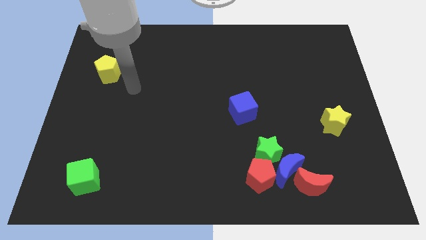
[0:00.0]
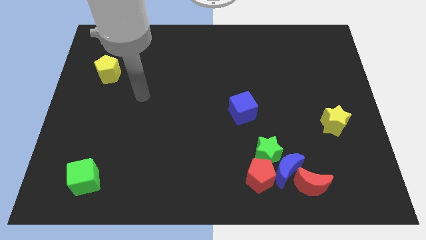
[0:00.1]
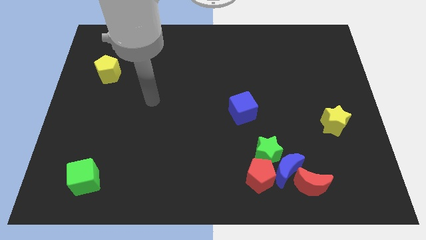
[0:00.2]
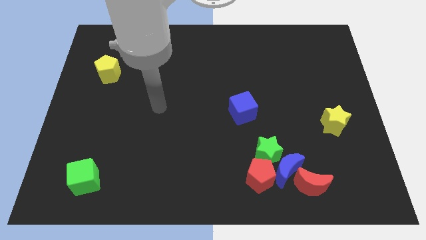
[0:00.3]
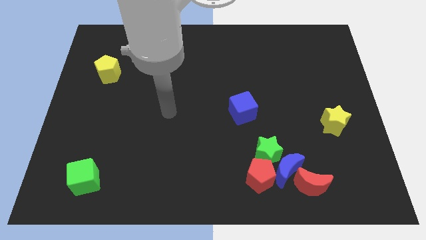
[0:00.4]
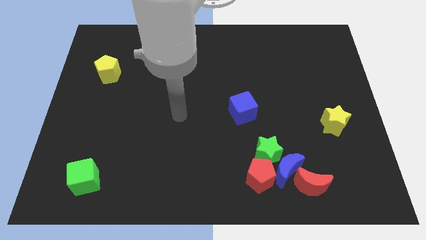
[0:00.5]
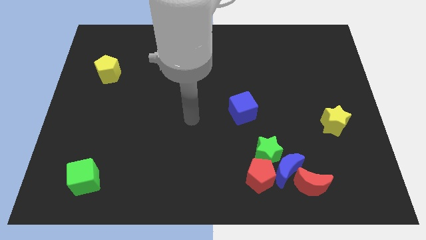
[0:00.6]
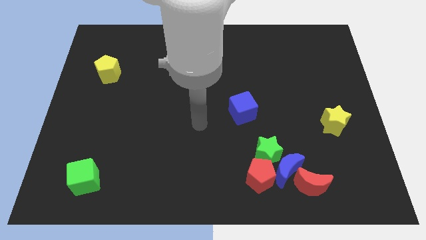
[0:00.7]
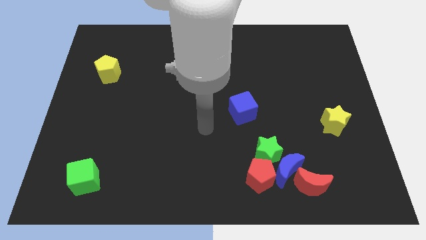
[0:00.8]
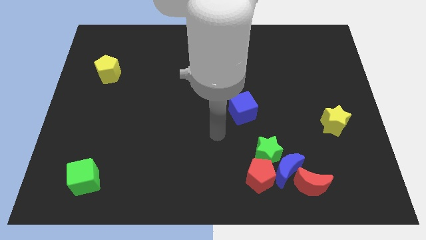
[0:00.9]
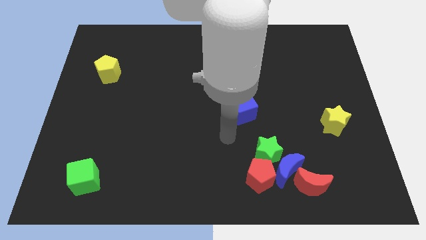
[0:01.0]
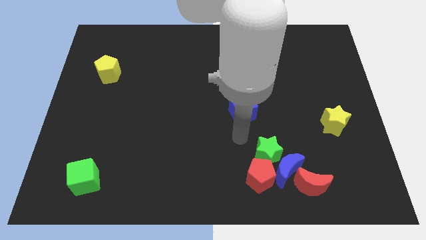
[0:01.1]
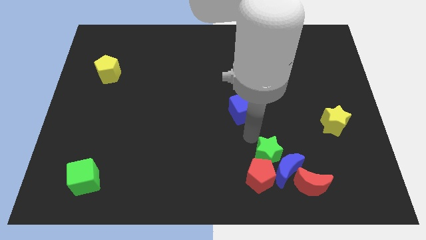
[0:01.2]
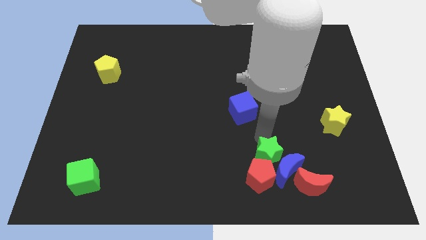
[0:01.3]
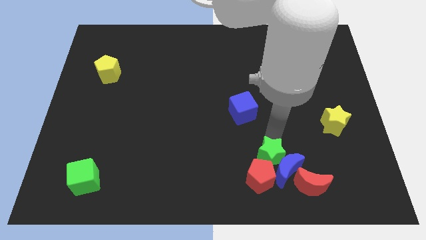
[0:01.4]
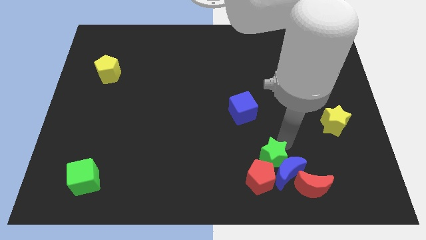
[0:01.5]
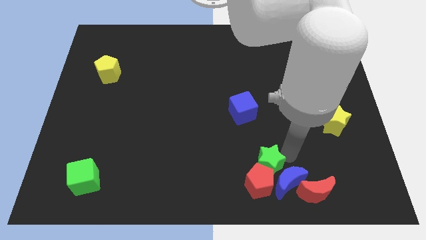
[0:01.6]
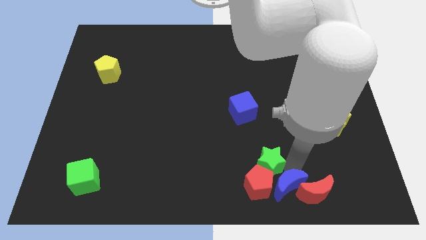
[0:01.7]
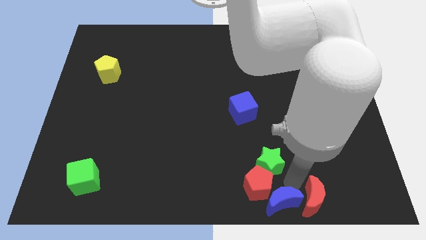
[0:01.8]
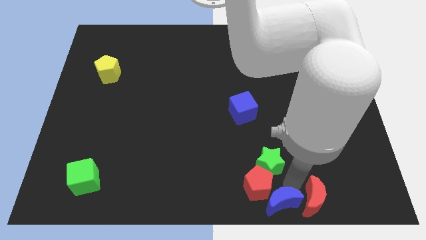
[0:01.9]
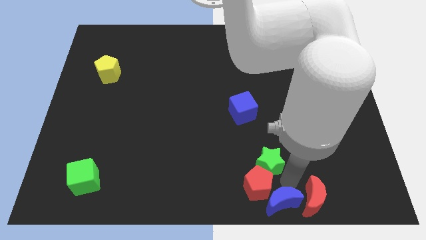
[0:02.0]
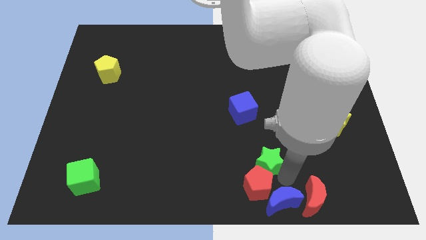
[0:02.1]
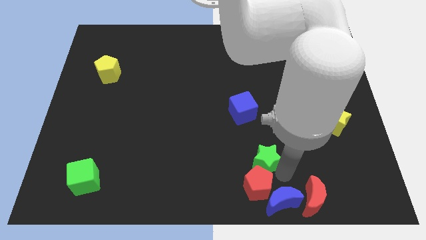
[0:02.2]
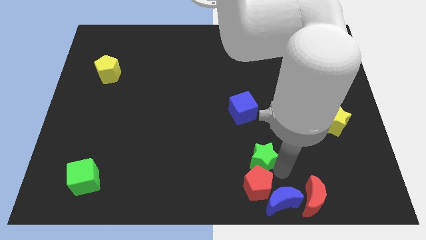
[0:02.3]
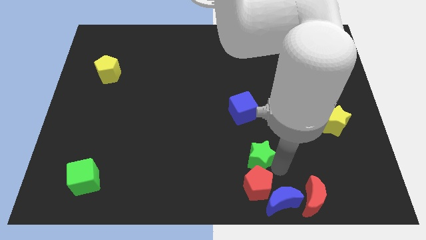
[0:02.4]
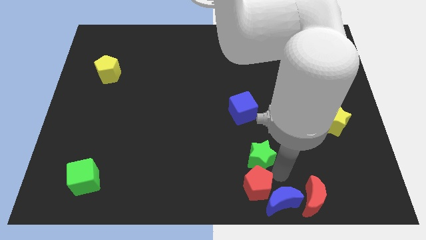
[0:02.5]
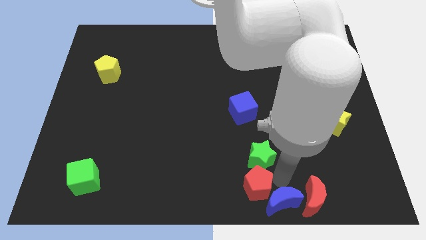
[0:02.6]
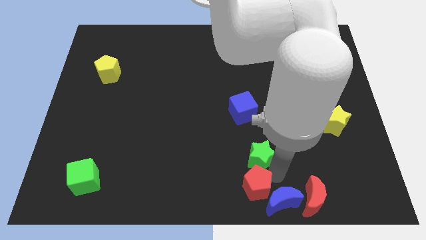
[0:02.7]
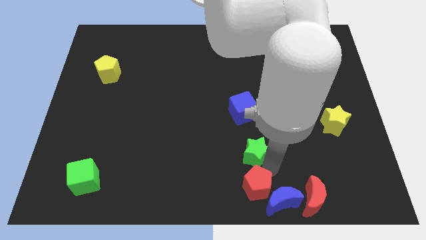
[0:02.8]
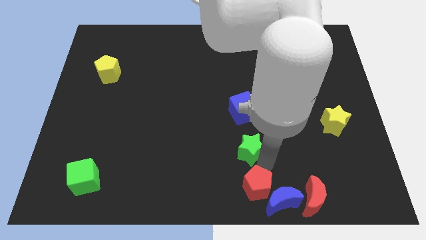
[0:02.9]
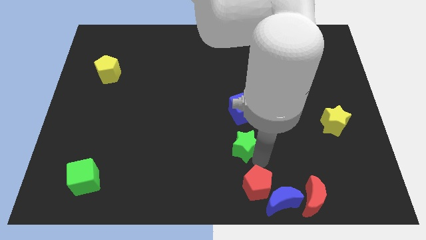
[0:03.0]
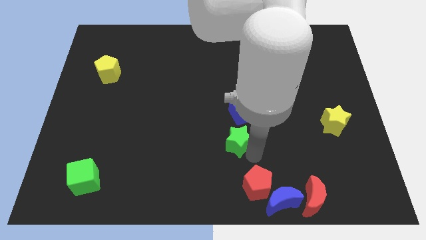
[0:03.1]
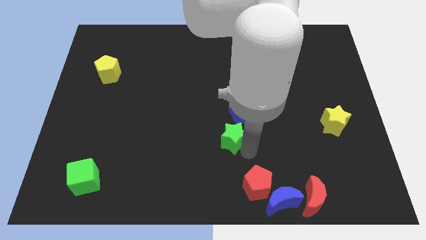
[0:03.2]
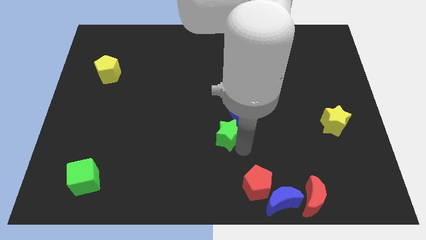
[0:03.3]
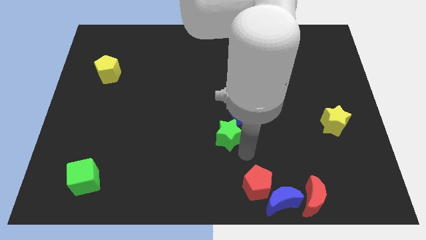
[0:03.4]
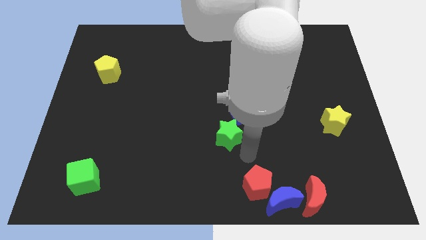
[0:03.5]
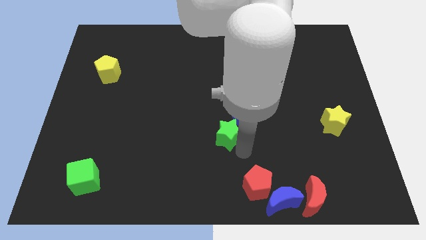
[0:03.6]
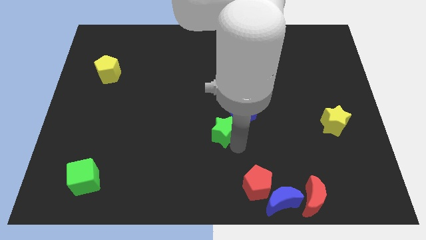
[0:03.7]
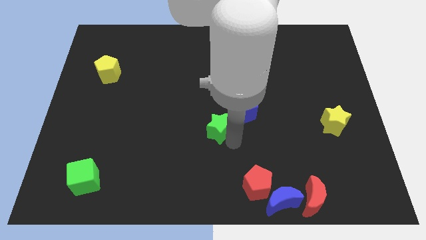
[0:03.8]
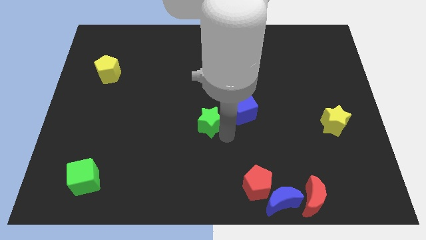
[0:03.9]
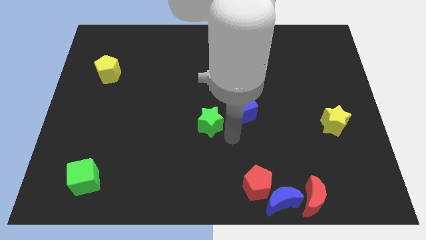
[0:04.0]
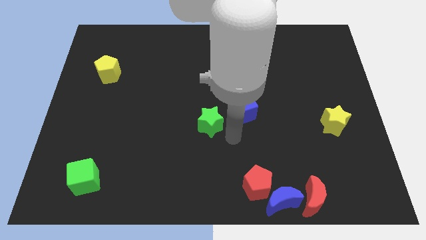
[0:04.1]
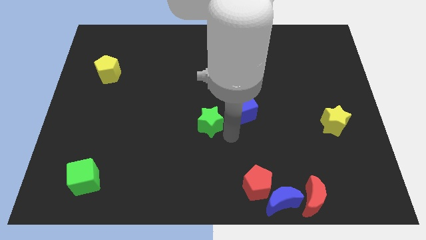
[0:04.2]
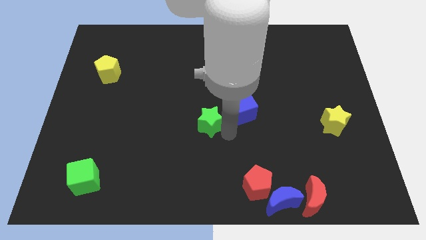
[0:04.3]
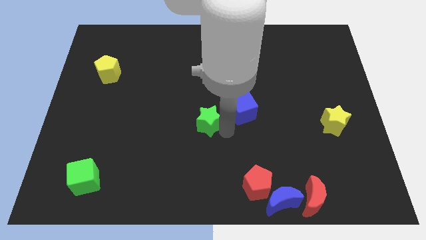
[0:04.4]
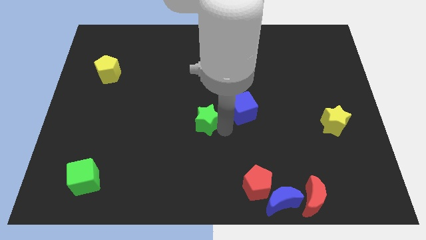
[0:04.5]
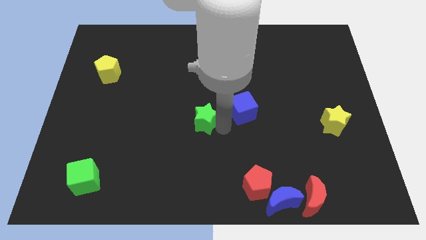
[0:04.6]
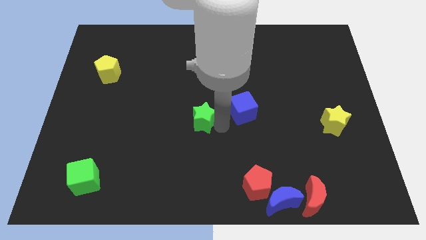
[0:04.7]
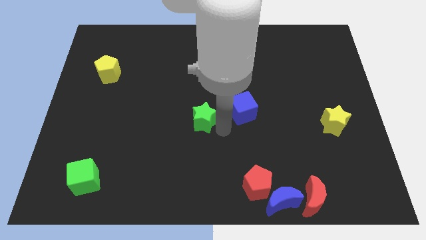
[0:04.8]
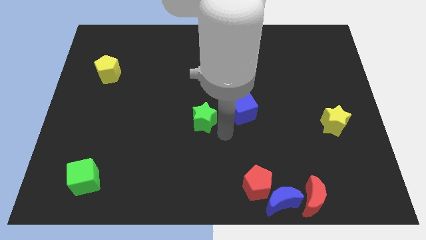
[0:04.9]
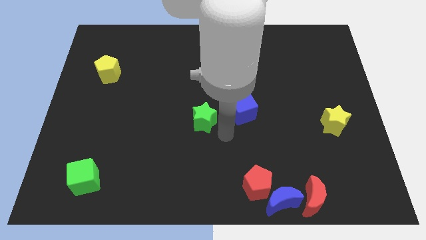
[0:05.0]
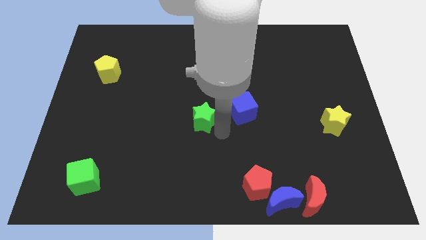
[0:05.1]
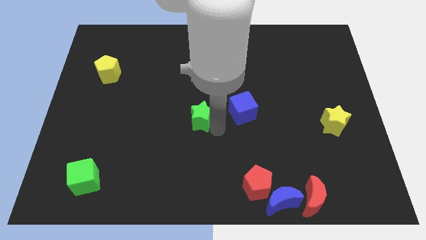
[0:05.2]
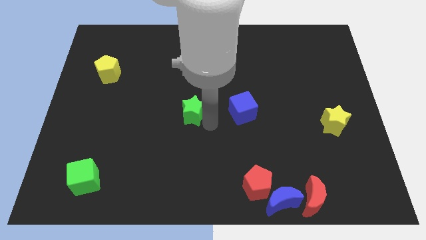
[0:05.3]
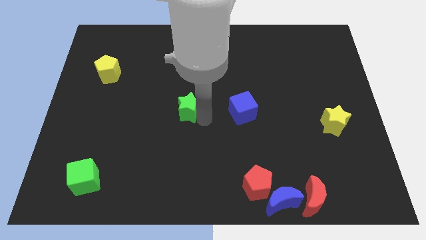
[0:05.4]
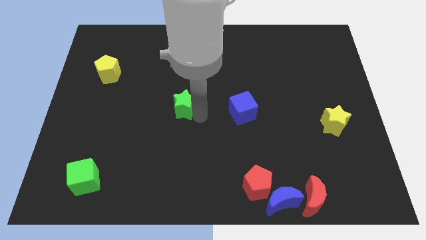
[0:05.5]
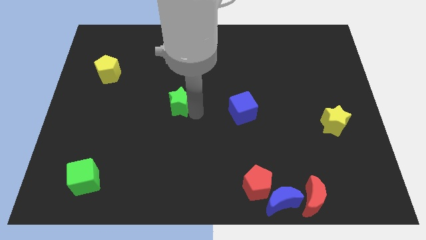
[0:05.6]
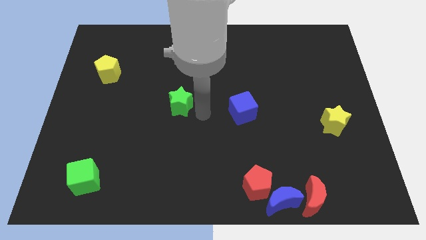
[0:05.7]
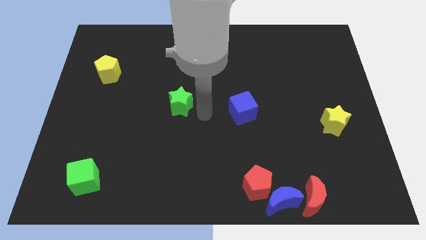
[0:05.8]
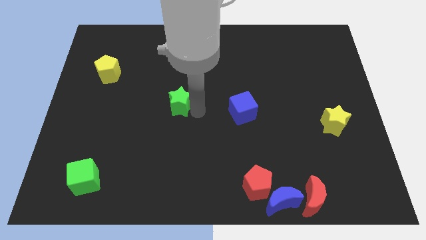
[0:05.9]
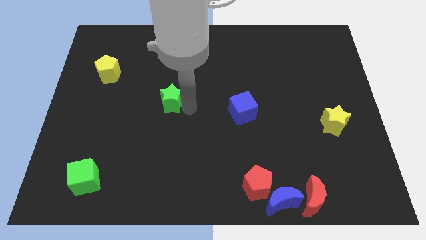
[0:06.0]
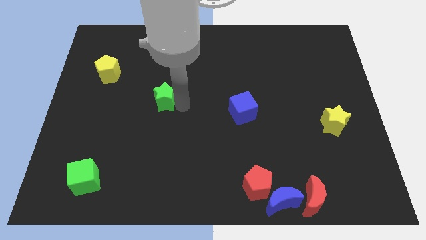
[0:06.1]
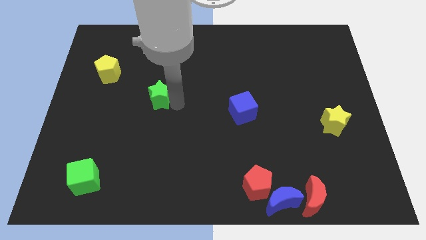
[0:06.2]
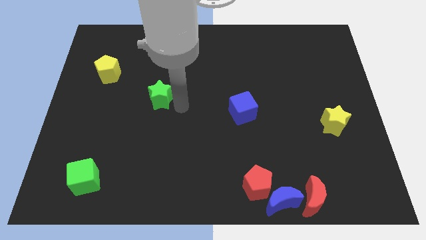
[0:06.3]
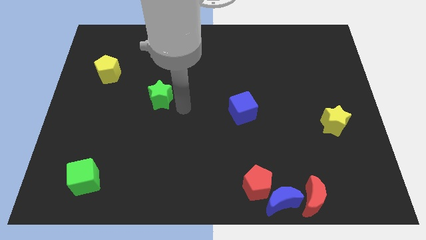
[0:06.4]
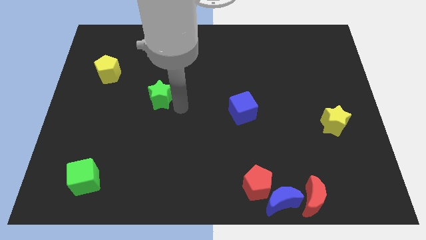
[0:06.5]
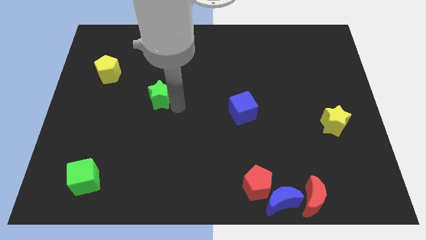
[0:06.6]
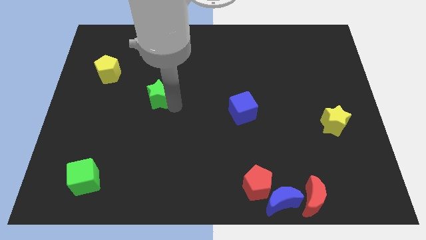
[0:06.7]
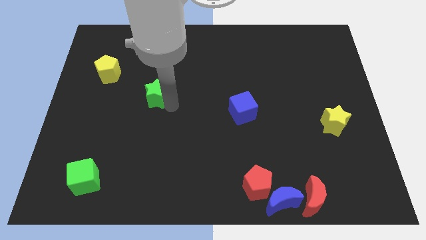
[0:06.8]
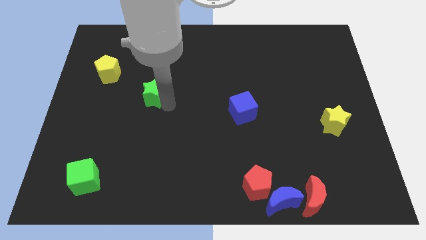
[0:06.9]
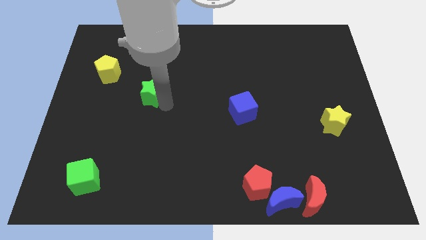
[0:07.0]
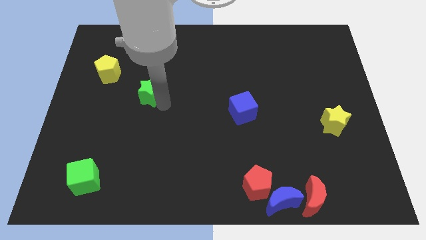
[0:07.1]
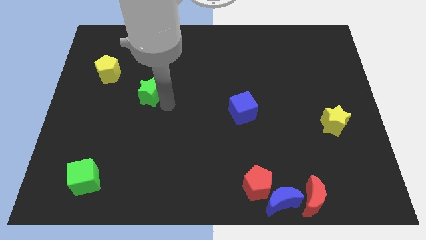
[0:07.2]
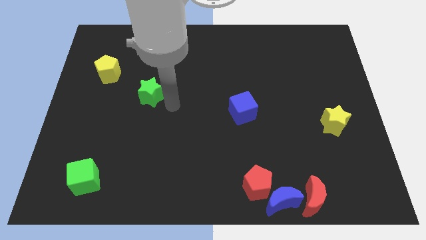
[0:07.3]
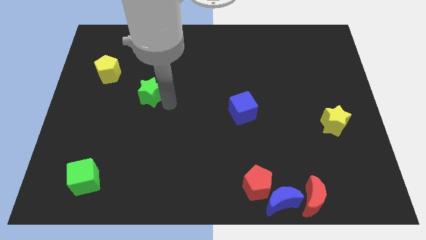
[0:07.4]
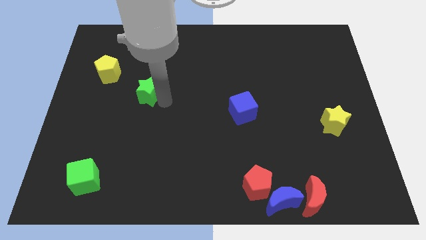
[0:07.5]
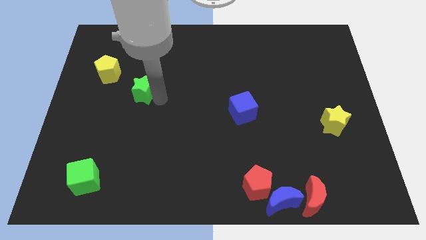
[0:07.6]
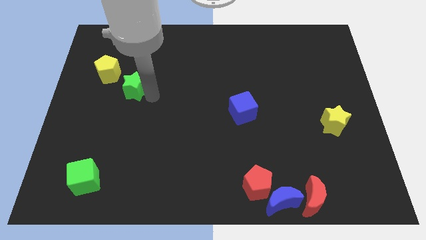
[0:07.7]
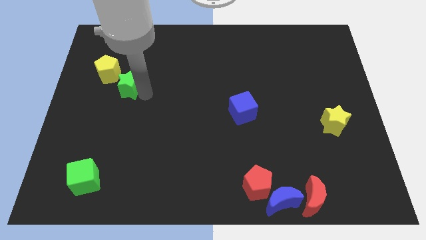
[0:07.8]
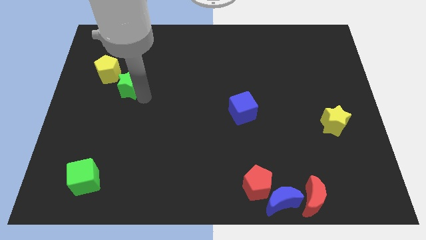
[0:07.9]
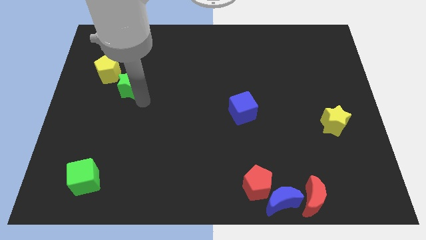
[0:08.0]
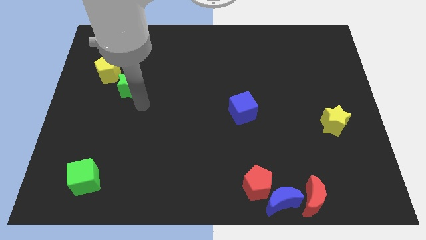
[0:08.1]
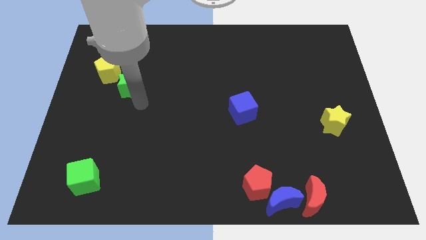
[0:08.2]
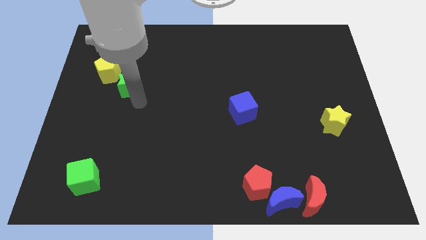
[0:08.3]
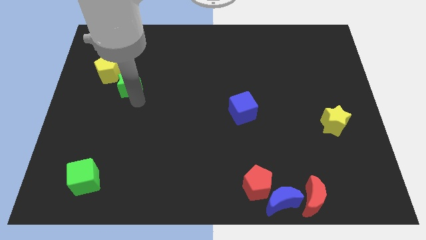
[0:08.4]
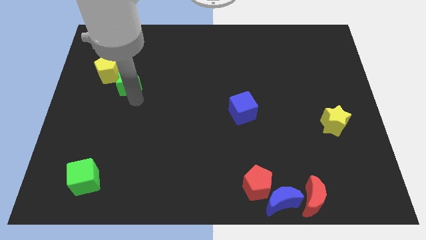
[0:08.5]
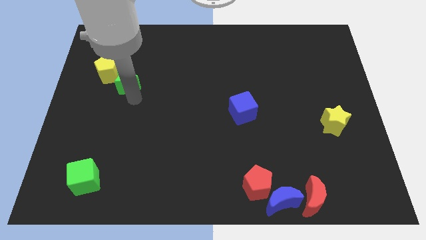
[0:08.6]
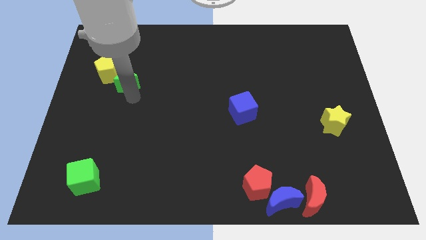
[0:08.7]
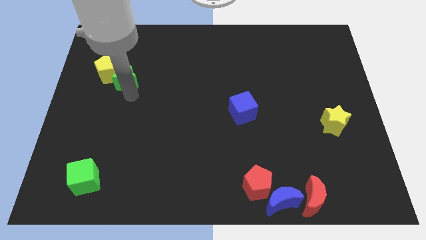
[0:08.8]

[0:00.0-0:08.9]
move the green star next to the yellow pentagon
